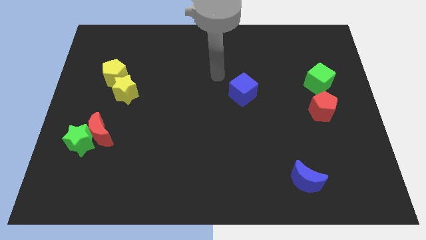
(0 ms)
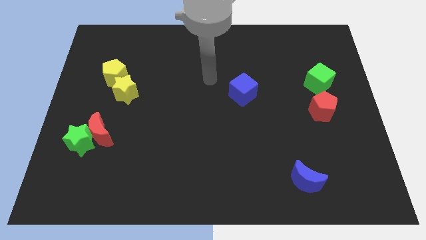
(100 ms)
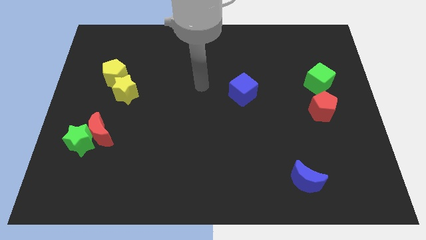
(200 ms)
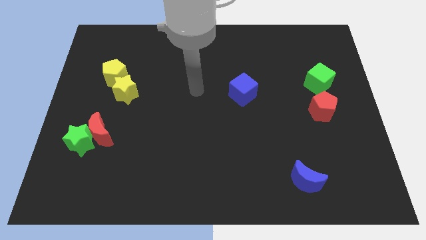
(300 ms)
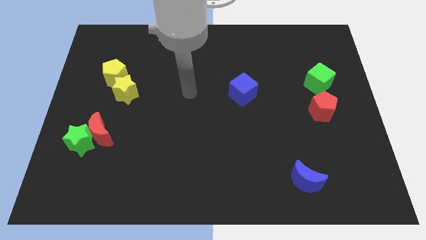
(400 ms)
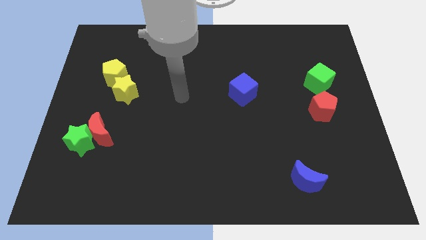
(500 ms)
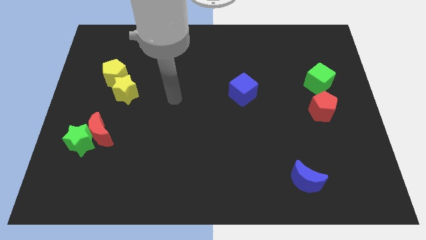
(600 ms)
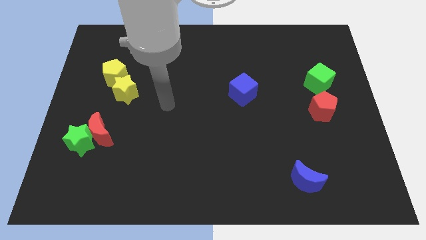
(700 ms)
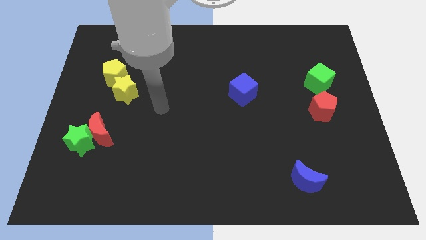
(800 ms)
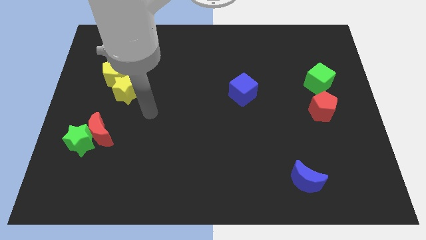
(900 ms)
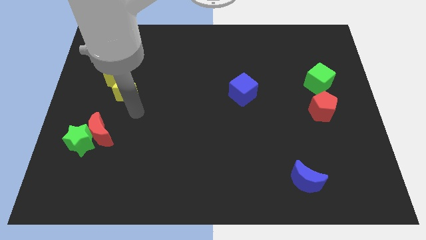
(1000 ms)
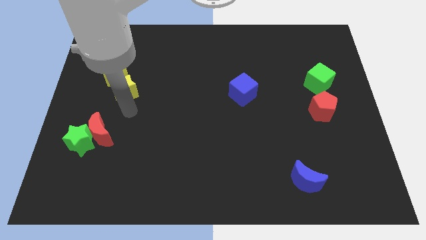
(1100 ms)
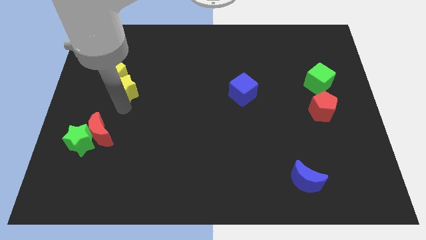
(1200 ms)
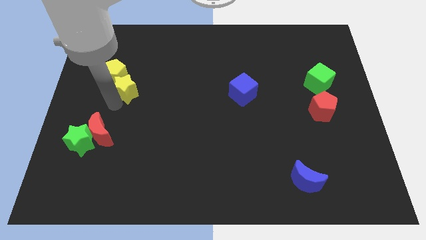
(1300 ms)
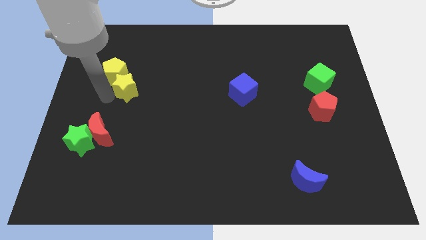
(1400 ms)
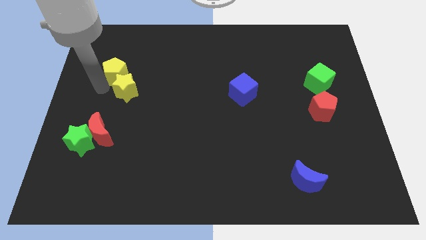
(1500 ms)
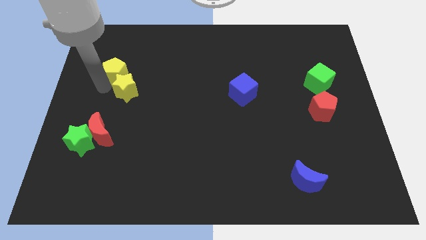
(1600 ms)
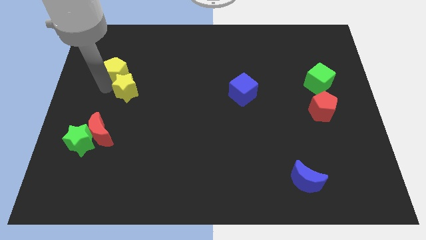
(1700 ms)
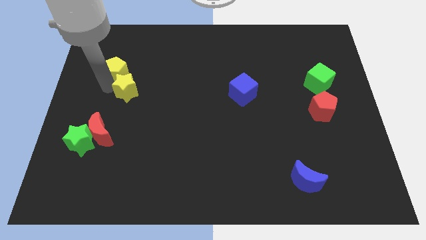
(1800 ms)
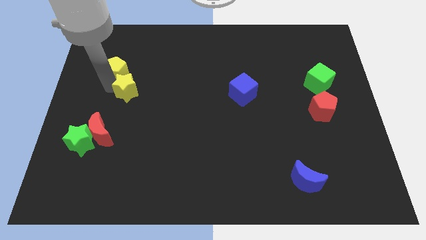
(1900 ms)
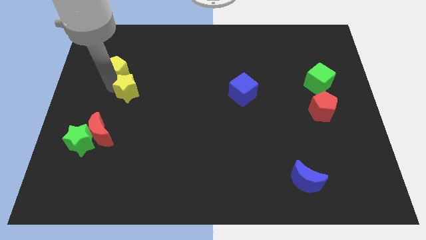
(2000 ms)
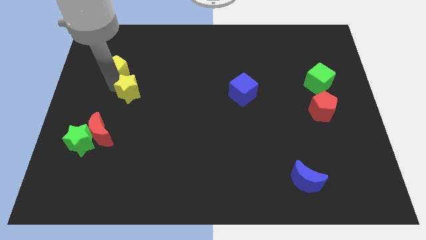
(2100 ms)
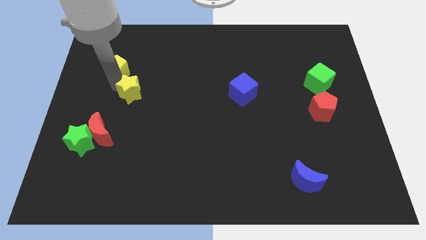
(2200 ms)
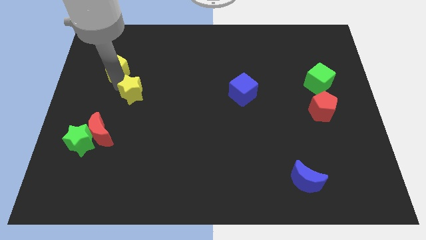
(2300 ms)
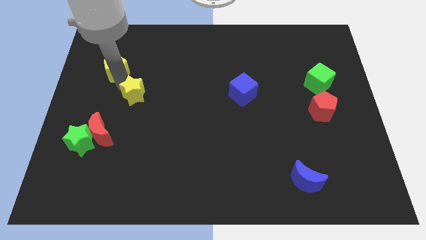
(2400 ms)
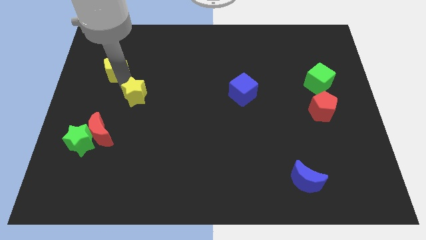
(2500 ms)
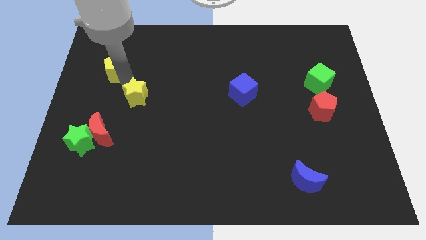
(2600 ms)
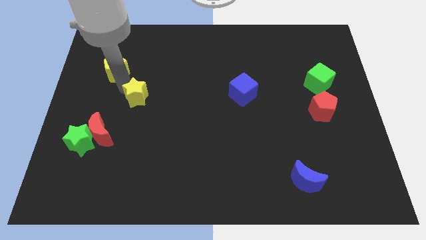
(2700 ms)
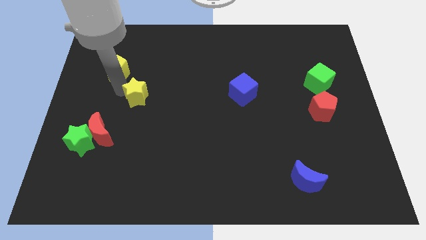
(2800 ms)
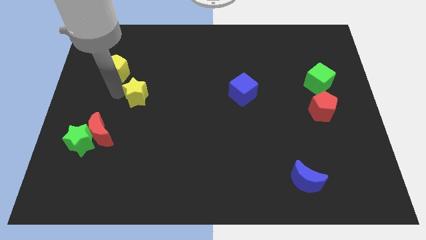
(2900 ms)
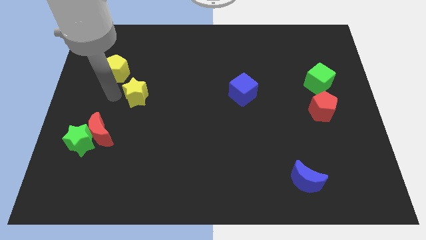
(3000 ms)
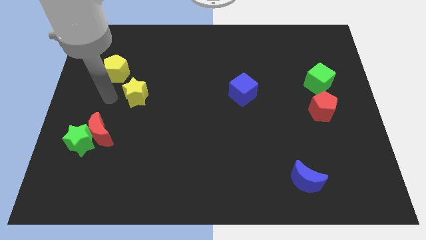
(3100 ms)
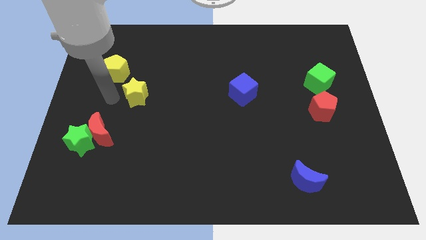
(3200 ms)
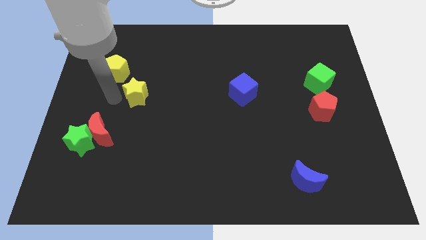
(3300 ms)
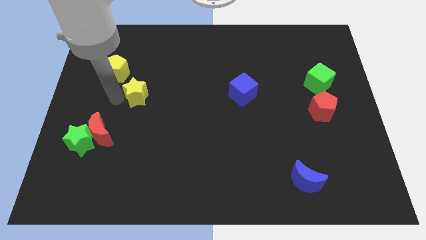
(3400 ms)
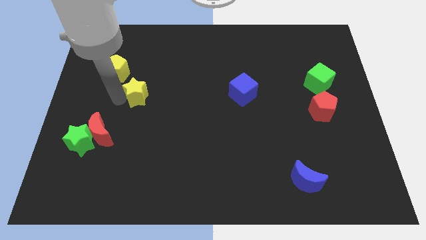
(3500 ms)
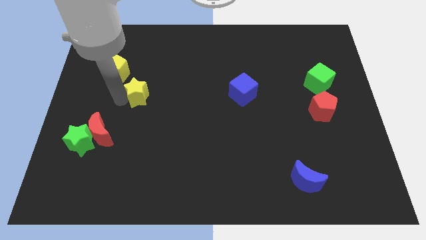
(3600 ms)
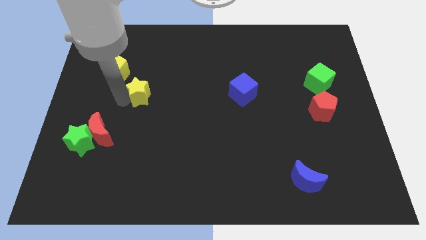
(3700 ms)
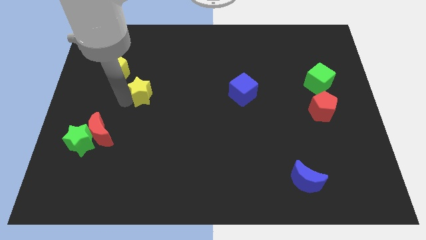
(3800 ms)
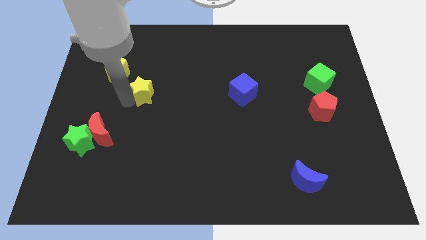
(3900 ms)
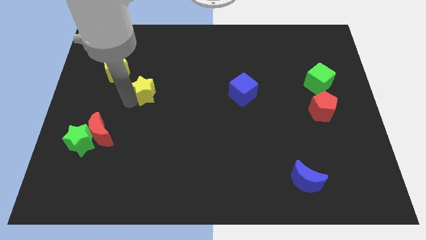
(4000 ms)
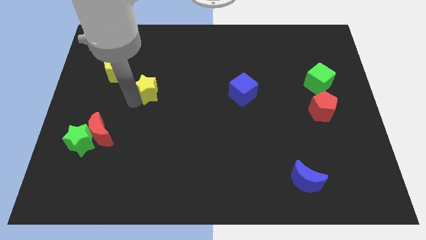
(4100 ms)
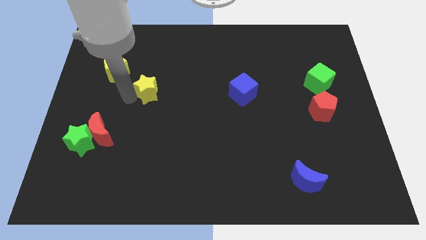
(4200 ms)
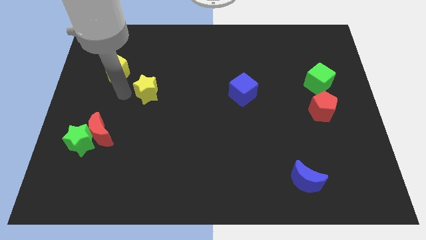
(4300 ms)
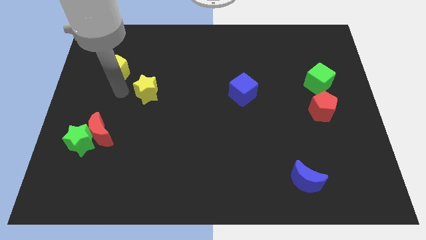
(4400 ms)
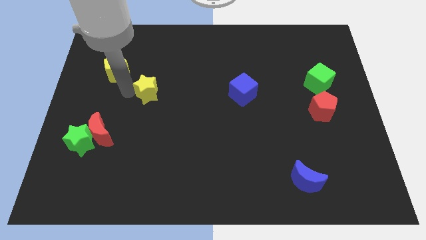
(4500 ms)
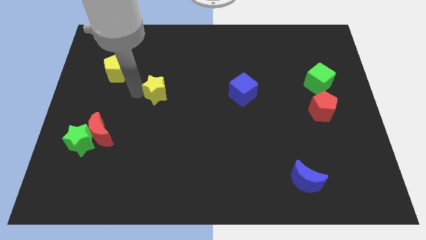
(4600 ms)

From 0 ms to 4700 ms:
slightly slide the yellow star to the right

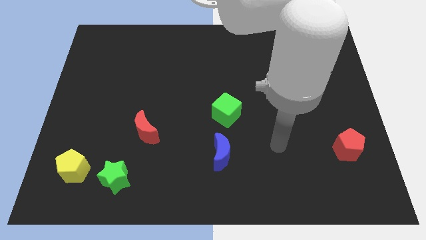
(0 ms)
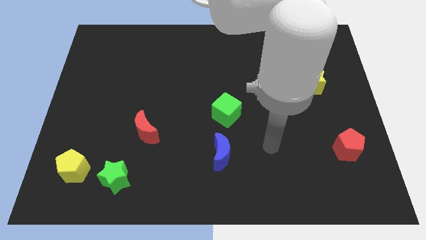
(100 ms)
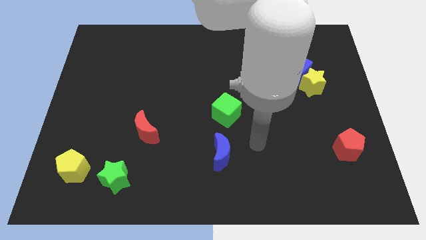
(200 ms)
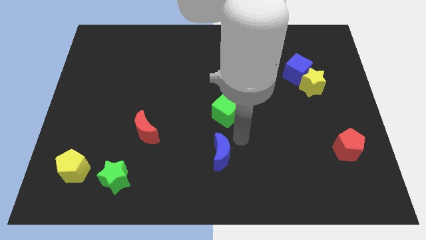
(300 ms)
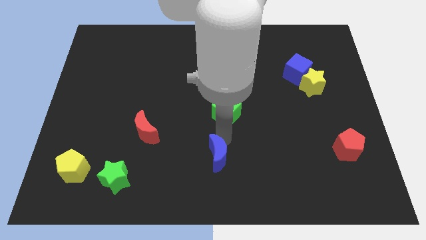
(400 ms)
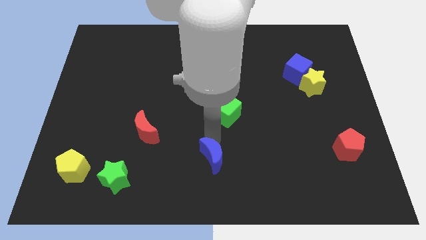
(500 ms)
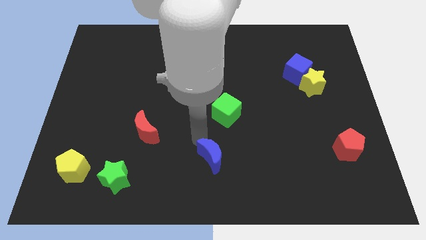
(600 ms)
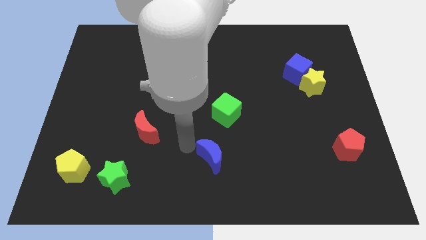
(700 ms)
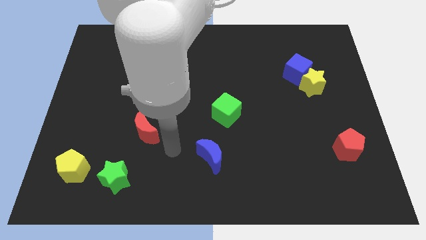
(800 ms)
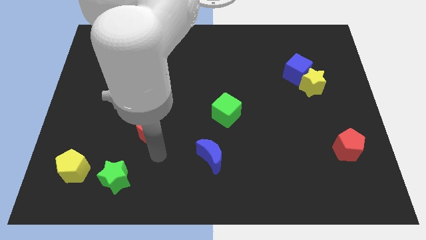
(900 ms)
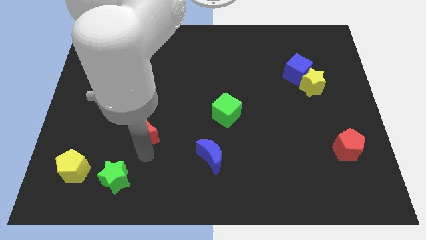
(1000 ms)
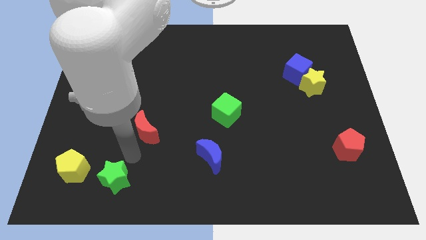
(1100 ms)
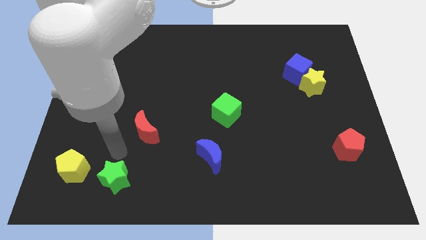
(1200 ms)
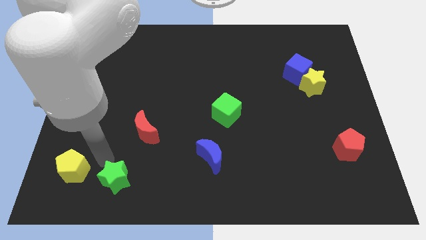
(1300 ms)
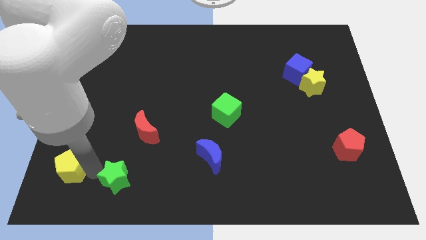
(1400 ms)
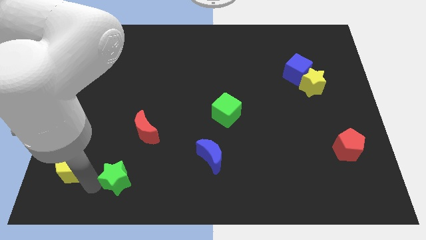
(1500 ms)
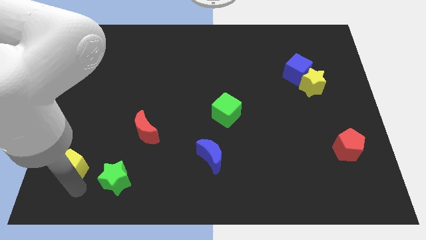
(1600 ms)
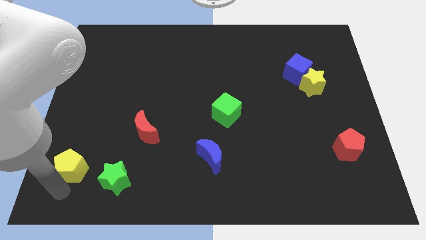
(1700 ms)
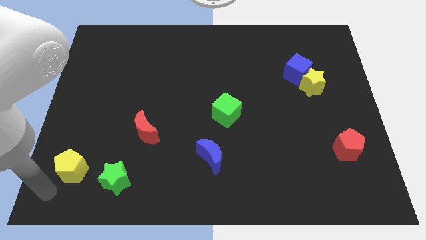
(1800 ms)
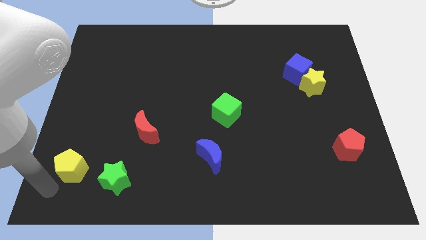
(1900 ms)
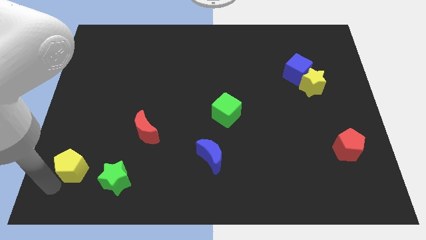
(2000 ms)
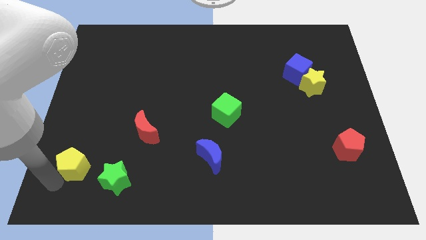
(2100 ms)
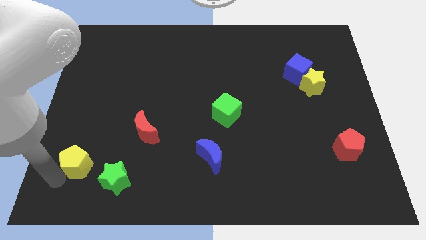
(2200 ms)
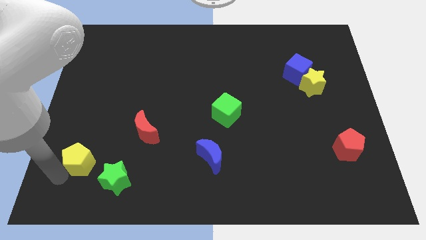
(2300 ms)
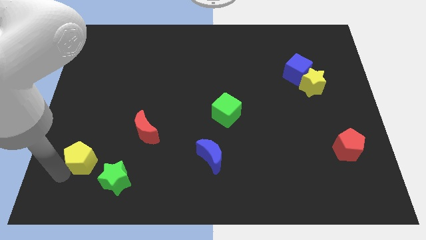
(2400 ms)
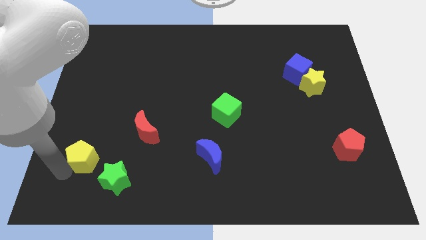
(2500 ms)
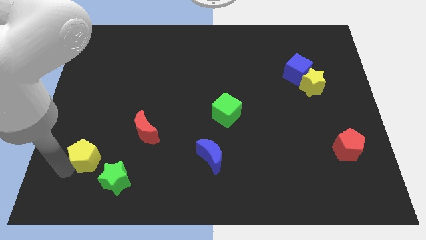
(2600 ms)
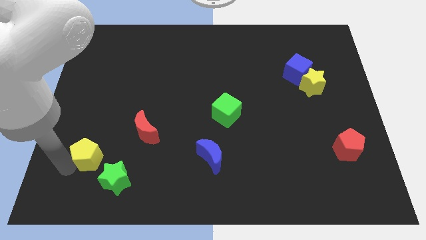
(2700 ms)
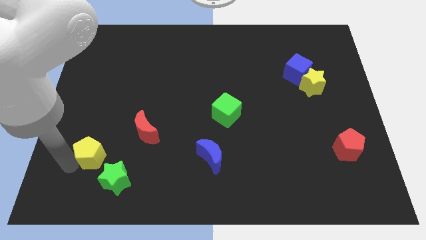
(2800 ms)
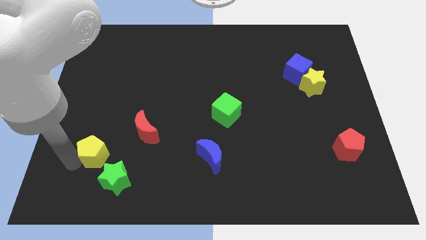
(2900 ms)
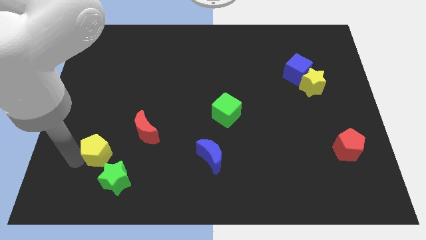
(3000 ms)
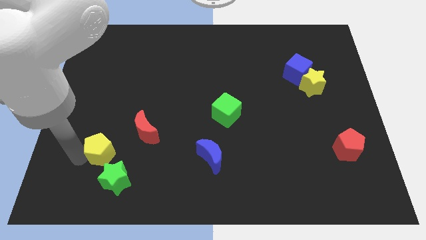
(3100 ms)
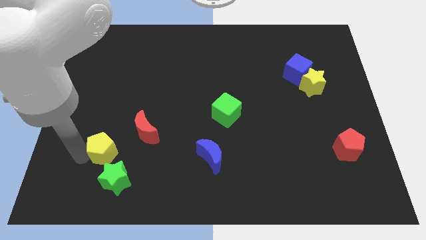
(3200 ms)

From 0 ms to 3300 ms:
slightly slide the yellow pentagon up and then right
